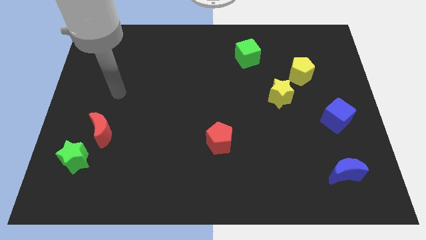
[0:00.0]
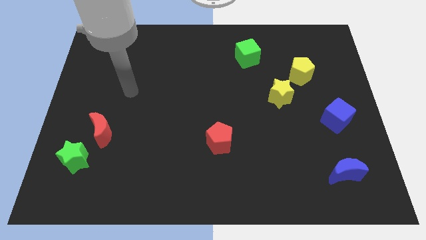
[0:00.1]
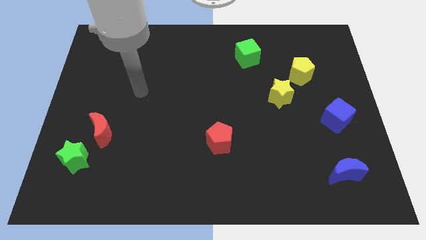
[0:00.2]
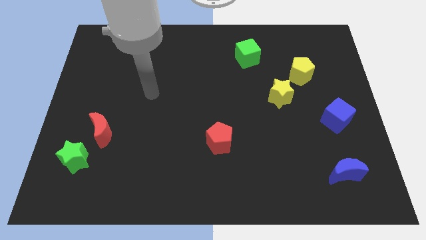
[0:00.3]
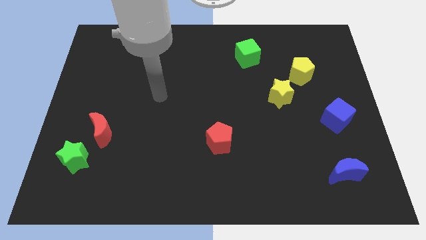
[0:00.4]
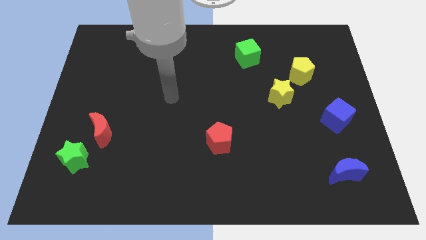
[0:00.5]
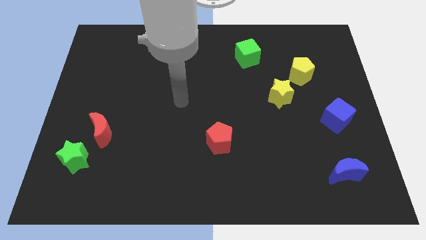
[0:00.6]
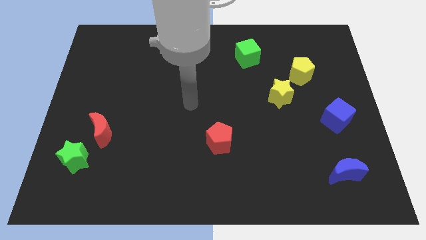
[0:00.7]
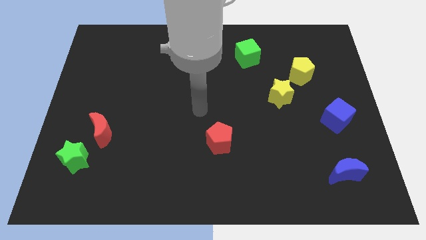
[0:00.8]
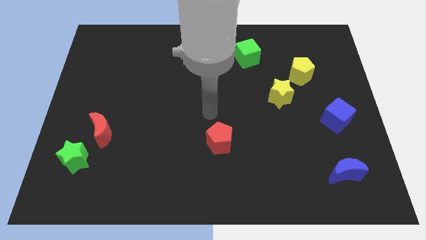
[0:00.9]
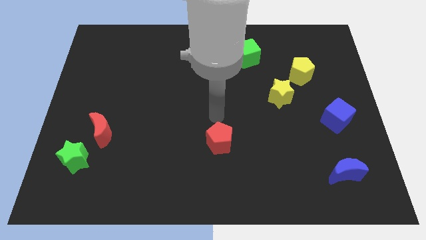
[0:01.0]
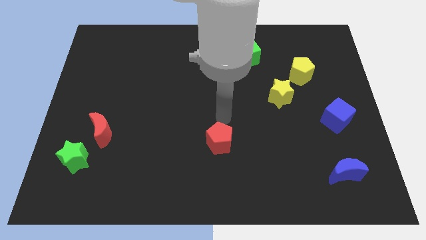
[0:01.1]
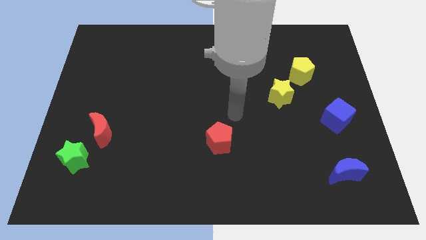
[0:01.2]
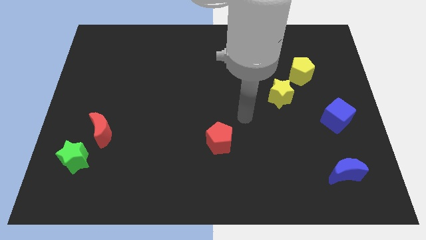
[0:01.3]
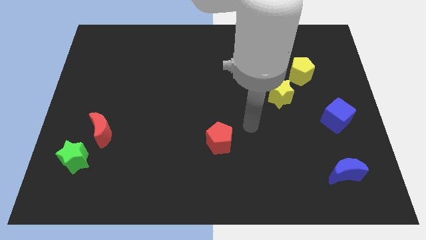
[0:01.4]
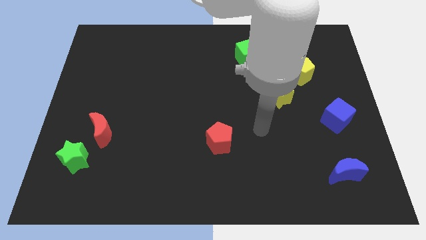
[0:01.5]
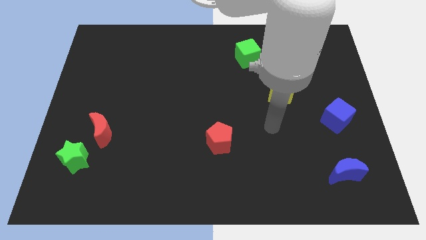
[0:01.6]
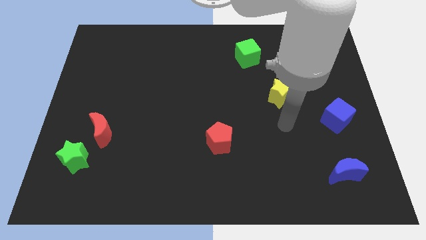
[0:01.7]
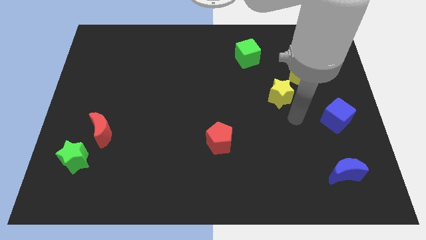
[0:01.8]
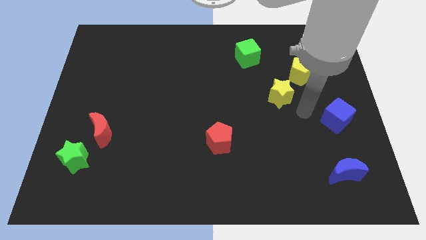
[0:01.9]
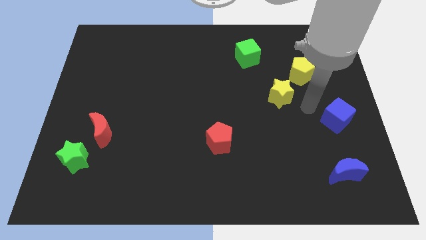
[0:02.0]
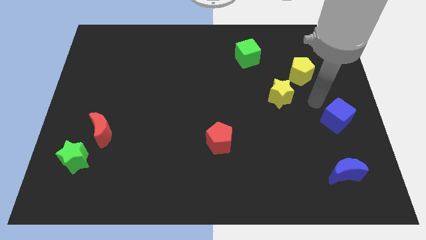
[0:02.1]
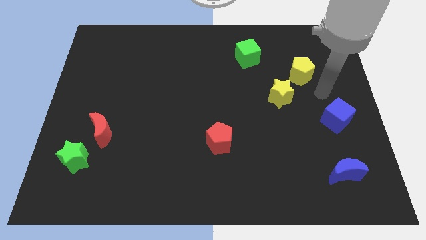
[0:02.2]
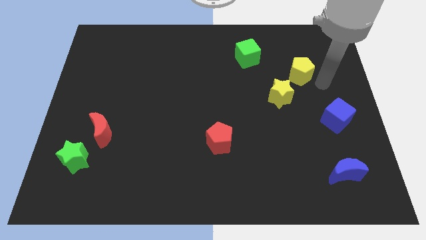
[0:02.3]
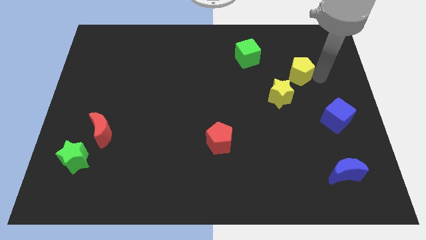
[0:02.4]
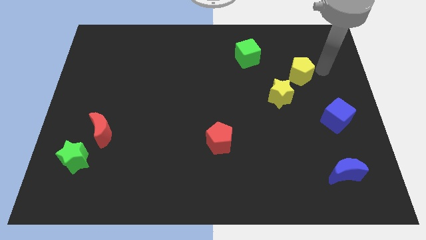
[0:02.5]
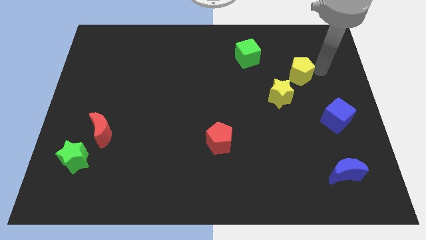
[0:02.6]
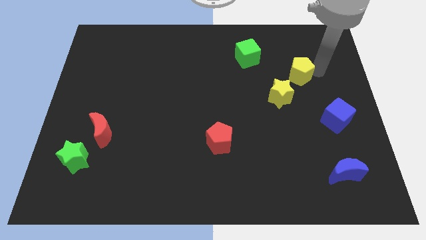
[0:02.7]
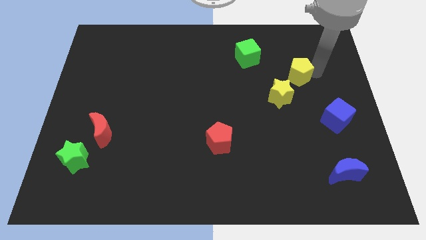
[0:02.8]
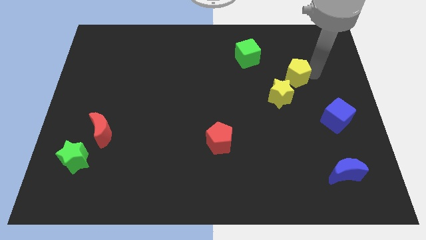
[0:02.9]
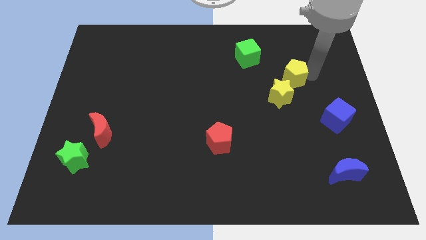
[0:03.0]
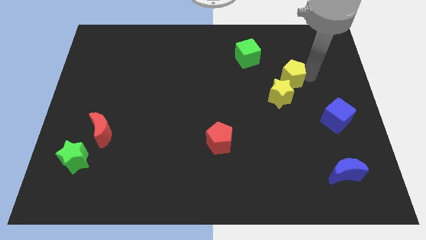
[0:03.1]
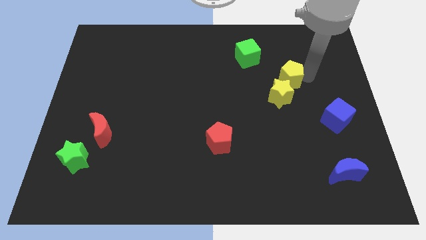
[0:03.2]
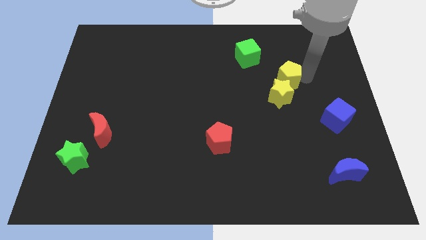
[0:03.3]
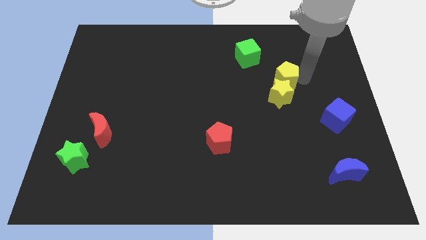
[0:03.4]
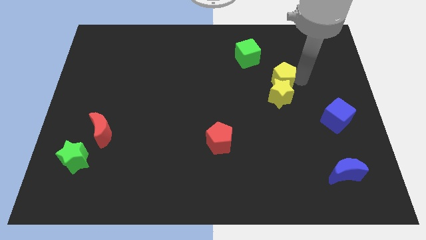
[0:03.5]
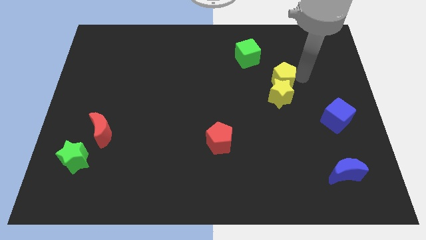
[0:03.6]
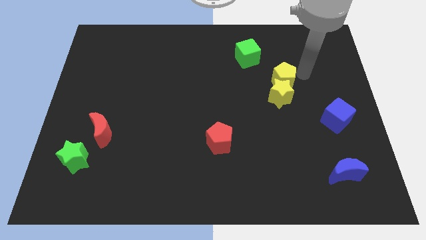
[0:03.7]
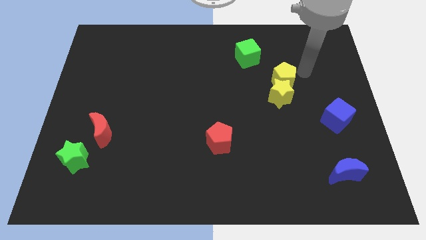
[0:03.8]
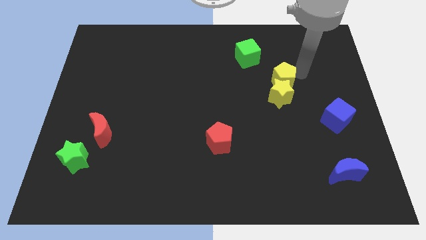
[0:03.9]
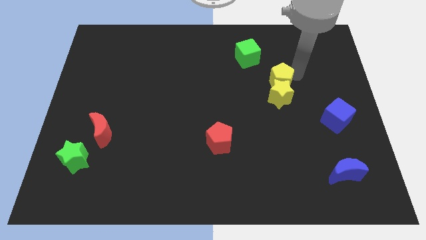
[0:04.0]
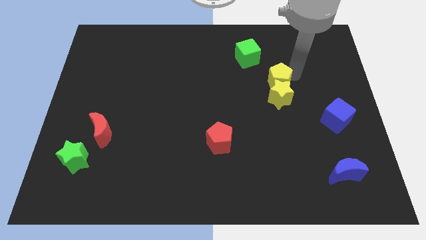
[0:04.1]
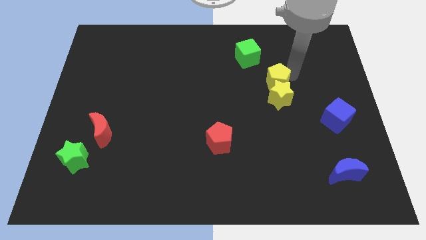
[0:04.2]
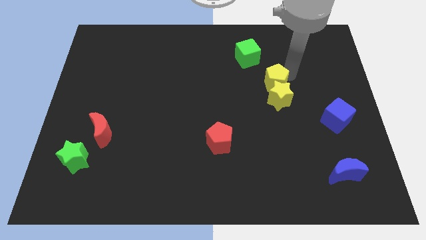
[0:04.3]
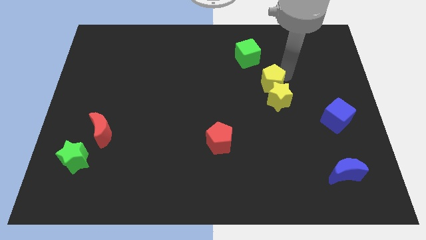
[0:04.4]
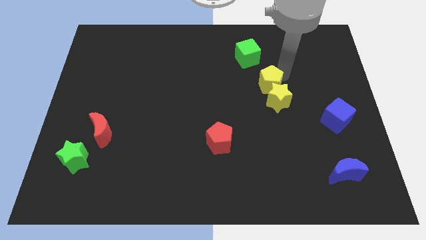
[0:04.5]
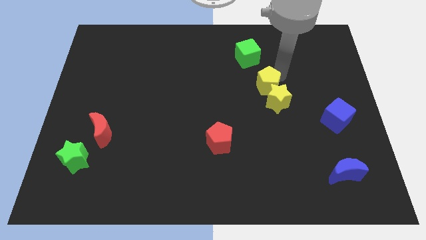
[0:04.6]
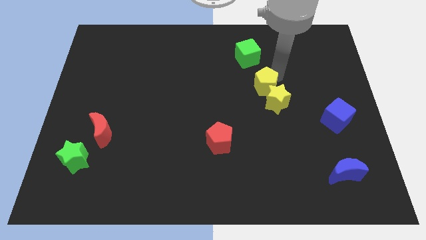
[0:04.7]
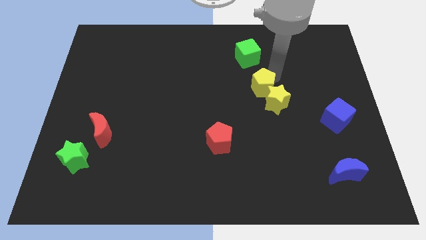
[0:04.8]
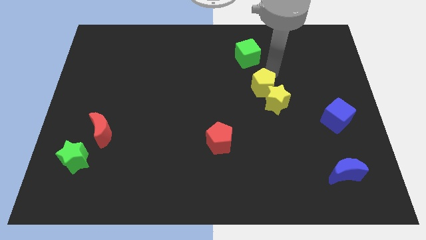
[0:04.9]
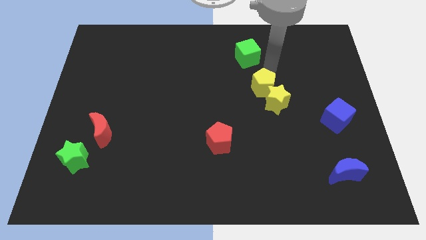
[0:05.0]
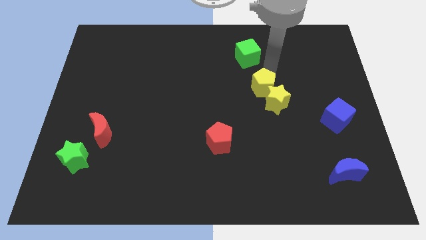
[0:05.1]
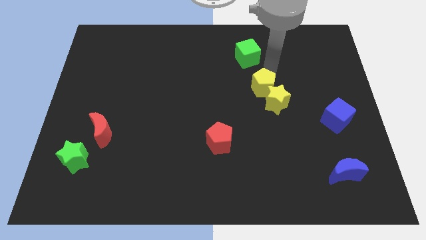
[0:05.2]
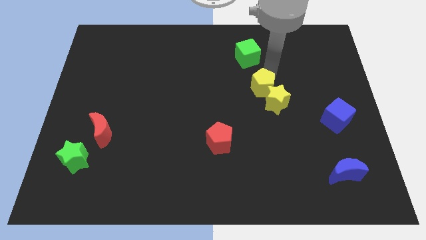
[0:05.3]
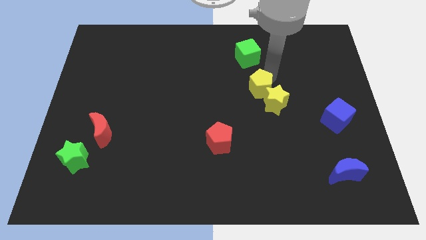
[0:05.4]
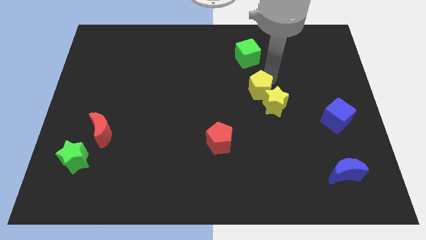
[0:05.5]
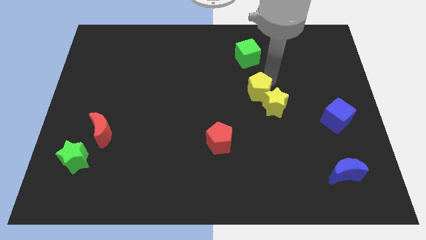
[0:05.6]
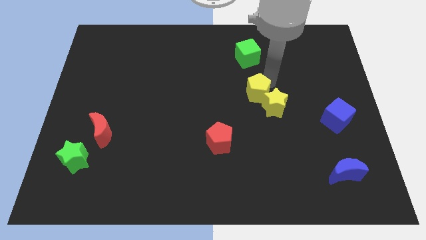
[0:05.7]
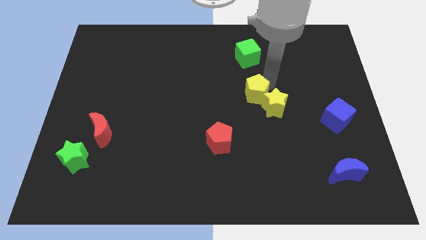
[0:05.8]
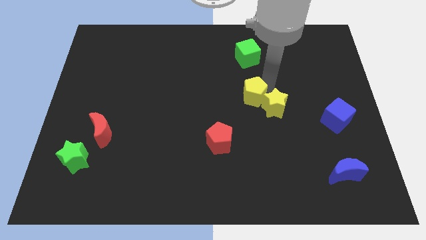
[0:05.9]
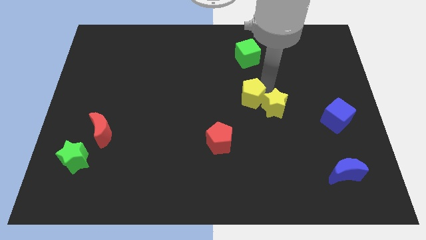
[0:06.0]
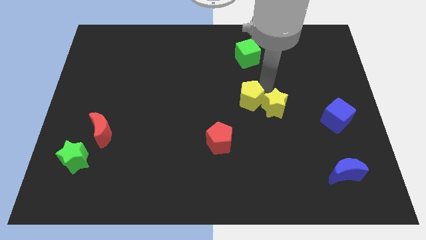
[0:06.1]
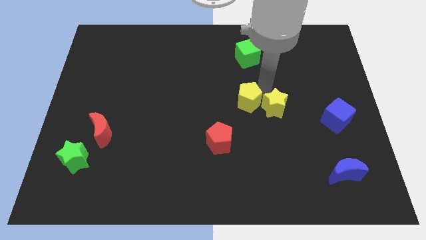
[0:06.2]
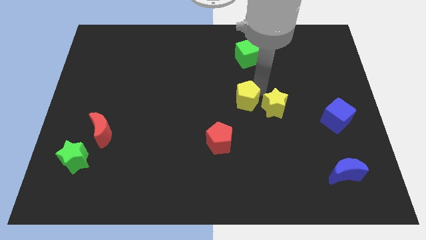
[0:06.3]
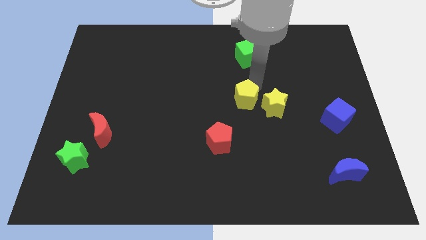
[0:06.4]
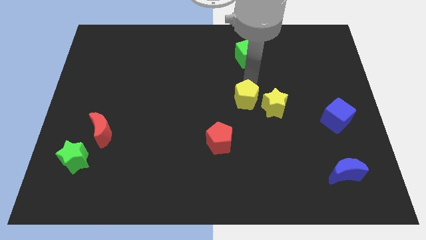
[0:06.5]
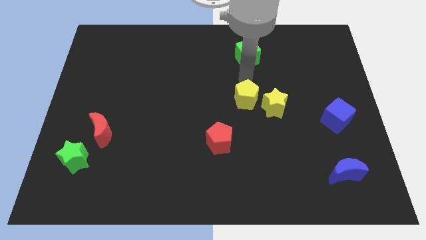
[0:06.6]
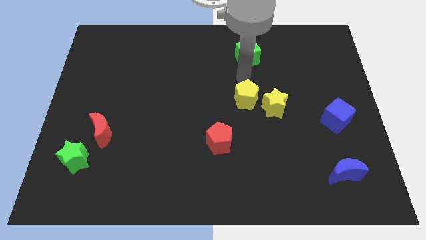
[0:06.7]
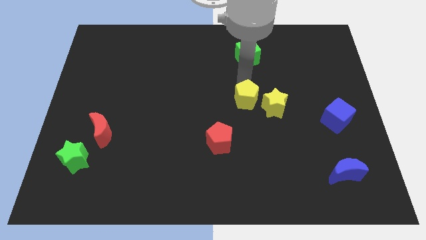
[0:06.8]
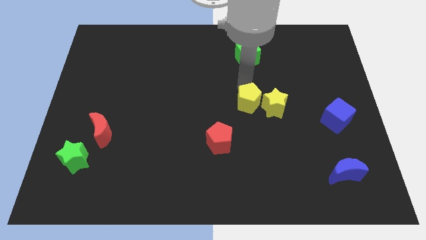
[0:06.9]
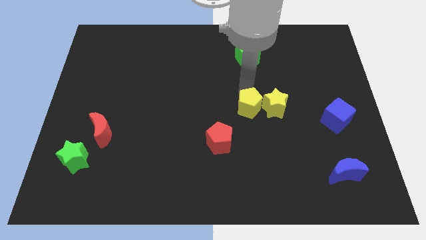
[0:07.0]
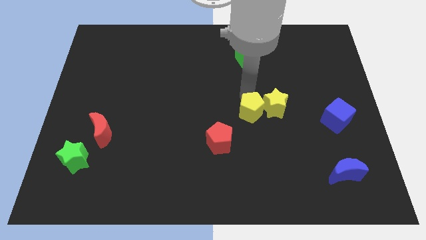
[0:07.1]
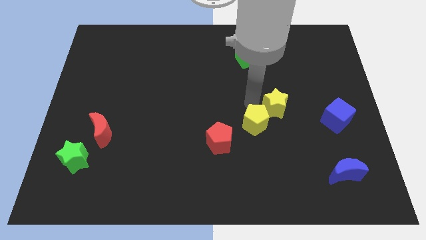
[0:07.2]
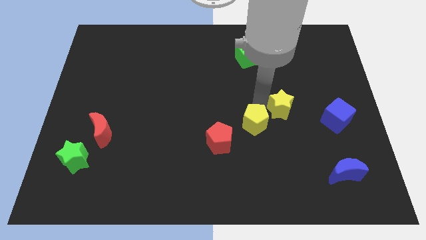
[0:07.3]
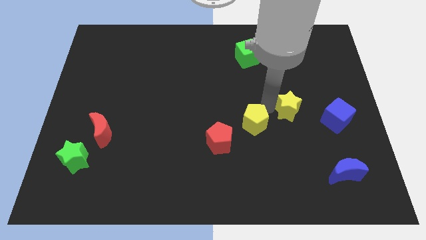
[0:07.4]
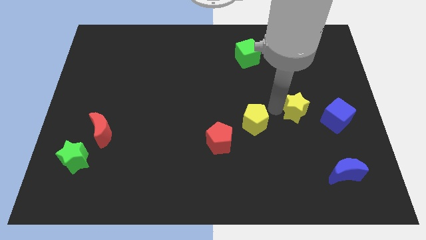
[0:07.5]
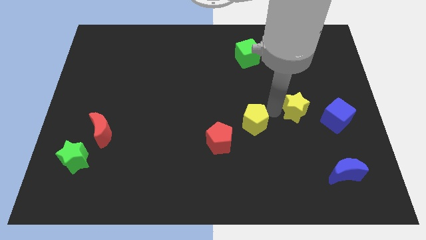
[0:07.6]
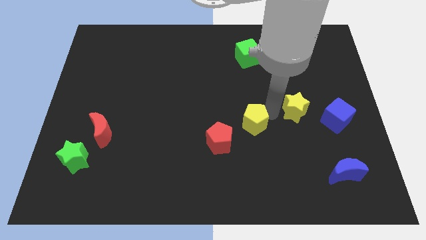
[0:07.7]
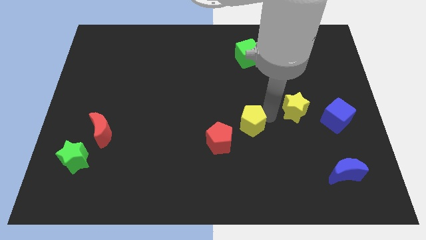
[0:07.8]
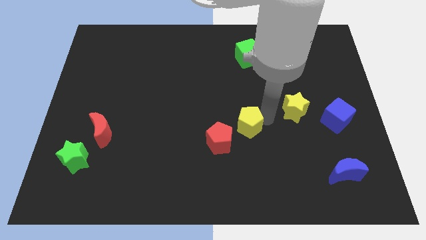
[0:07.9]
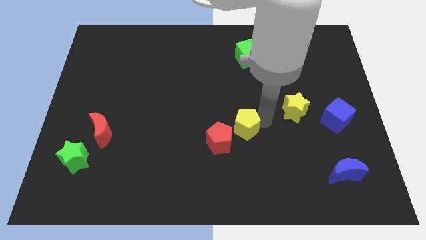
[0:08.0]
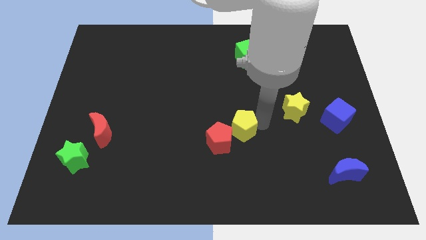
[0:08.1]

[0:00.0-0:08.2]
move the yellow pentagon close to the red pentagon
